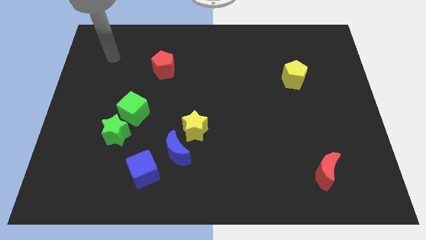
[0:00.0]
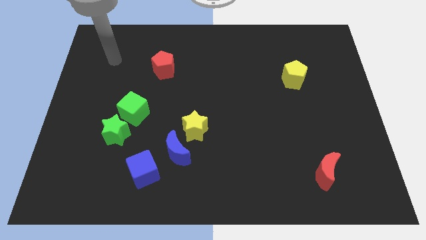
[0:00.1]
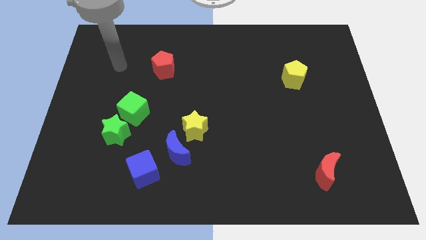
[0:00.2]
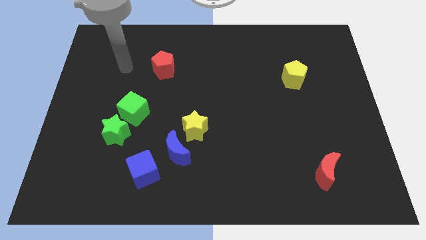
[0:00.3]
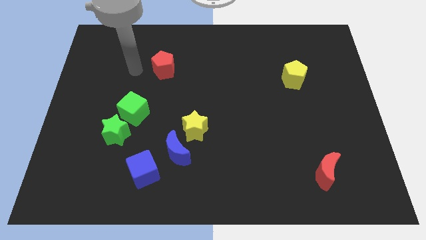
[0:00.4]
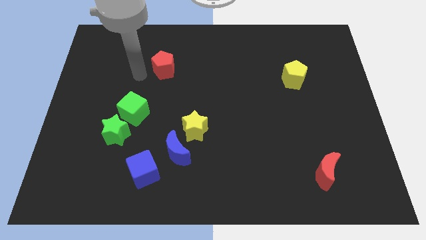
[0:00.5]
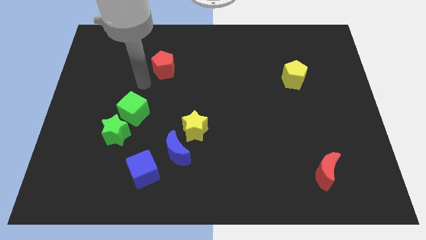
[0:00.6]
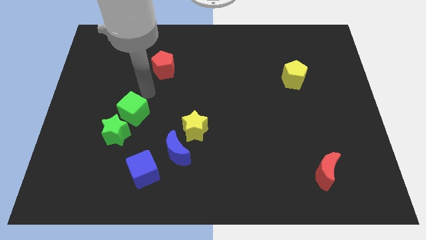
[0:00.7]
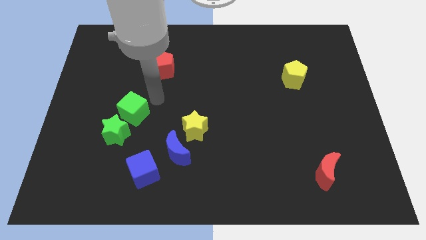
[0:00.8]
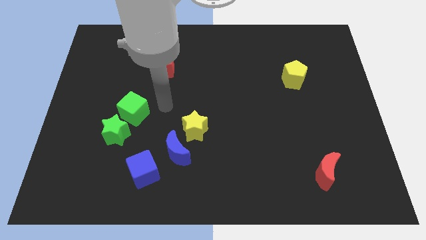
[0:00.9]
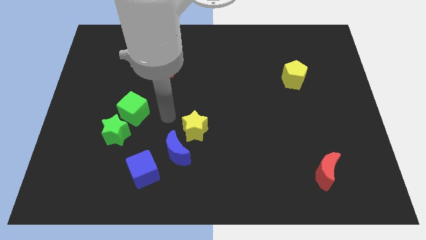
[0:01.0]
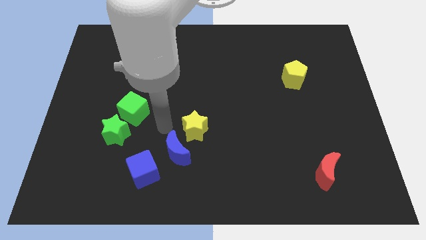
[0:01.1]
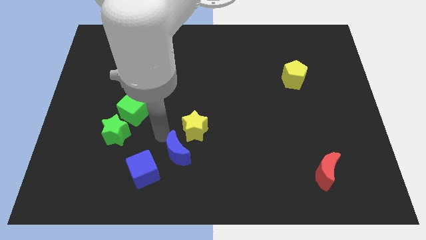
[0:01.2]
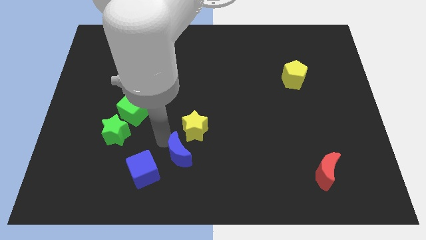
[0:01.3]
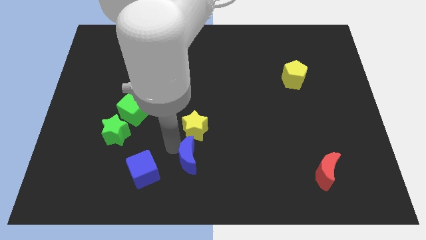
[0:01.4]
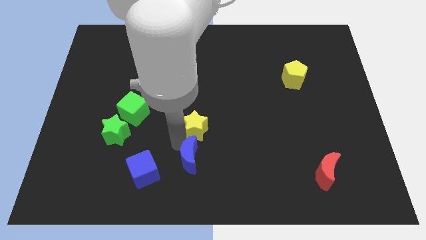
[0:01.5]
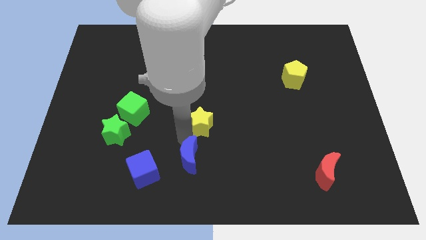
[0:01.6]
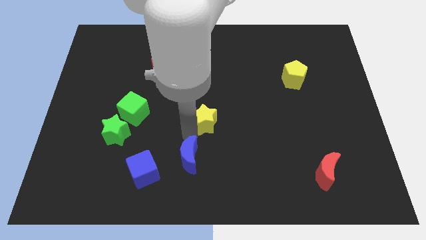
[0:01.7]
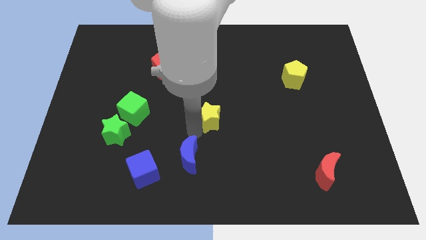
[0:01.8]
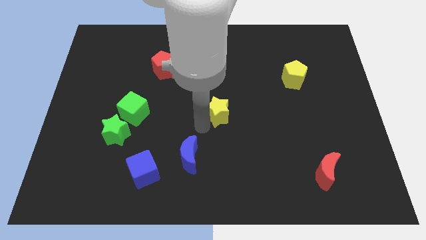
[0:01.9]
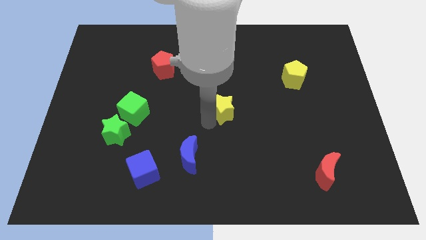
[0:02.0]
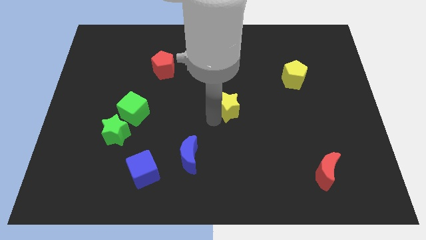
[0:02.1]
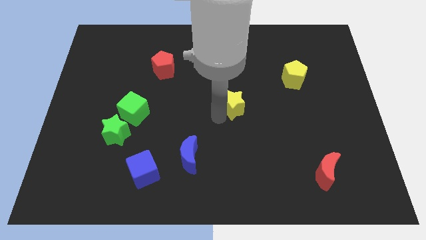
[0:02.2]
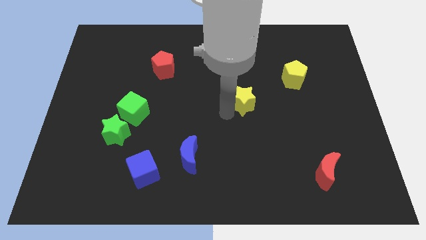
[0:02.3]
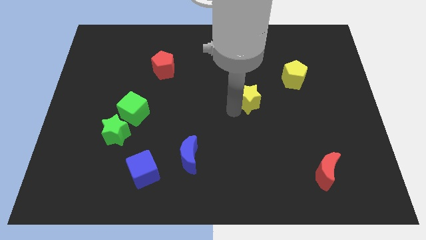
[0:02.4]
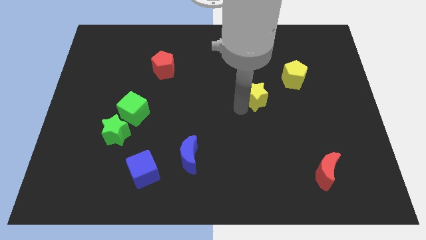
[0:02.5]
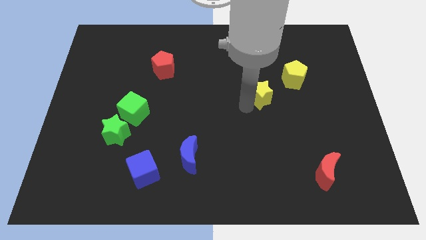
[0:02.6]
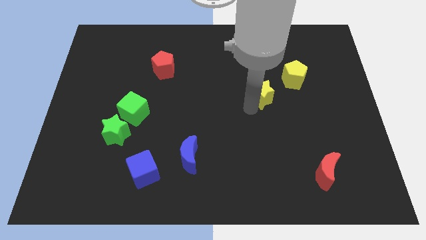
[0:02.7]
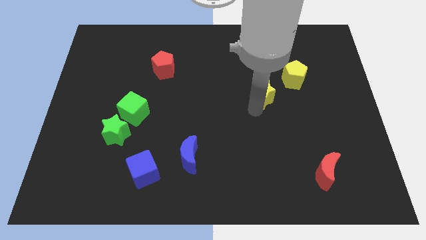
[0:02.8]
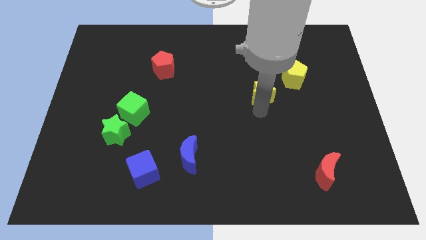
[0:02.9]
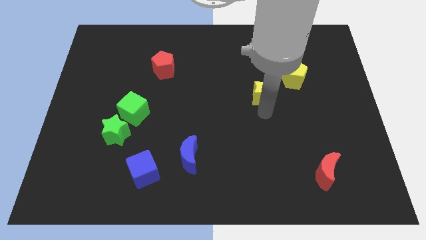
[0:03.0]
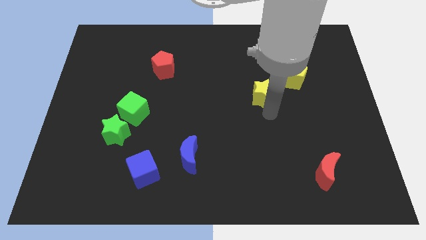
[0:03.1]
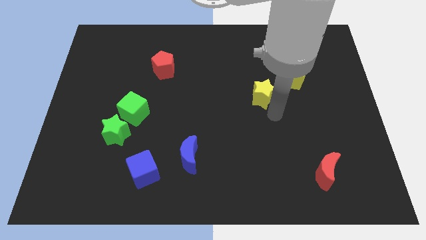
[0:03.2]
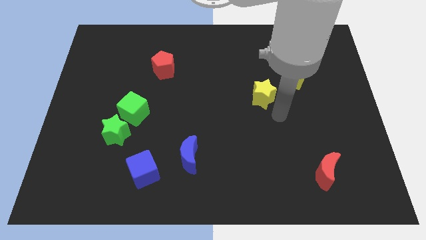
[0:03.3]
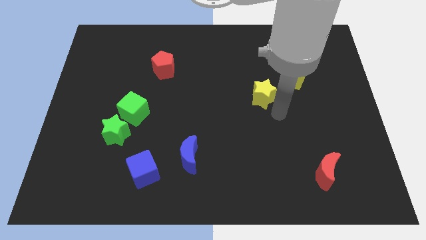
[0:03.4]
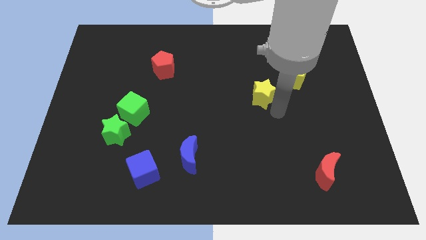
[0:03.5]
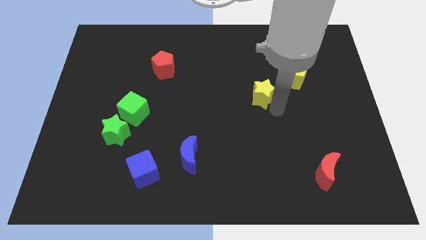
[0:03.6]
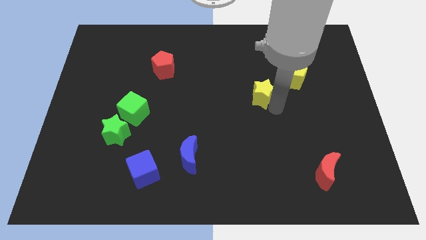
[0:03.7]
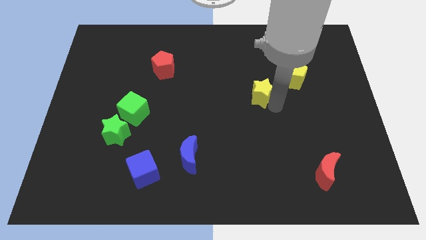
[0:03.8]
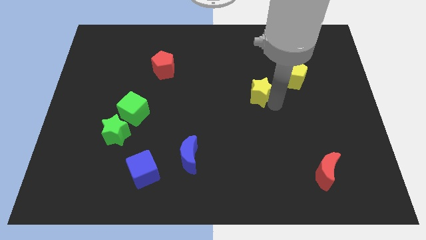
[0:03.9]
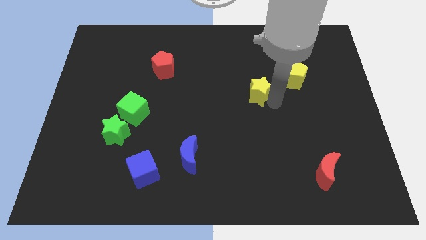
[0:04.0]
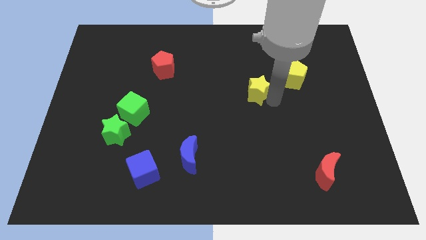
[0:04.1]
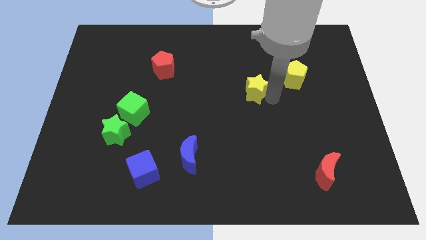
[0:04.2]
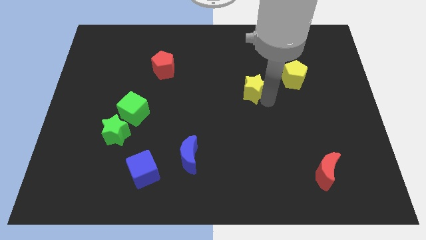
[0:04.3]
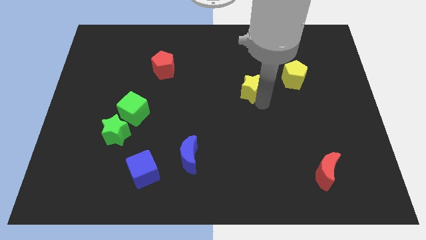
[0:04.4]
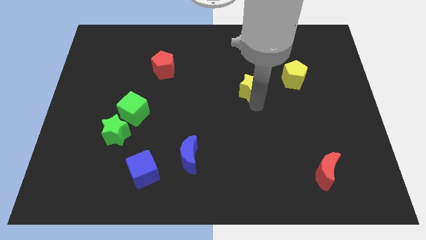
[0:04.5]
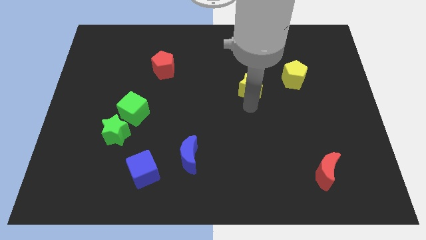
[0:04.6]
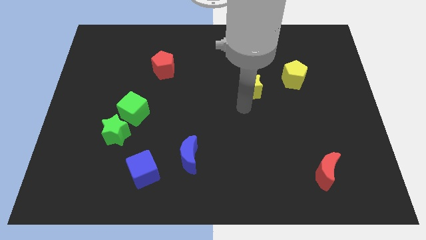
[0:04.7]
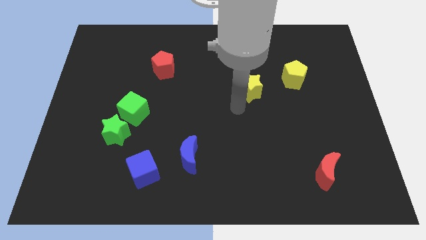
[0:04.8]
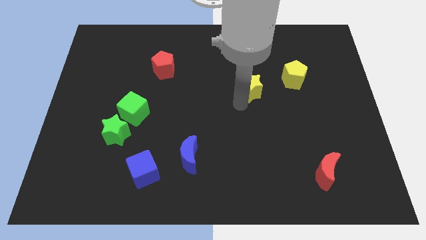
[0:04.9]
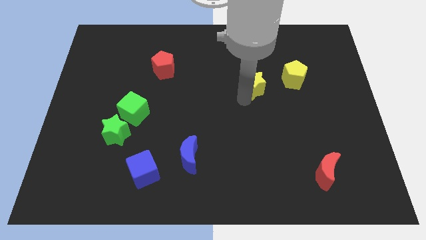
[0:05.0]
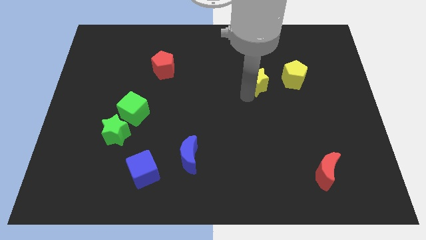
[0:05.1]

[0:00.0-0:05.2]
push the yellow star upwards and to the right diagonally

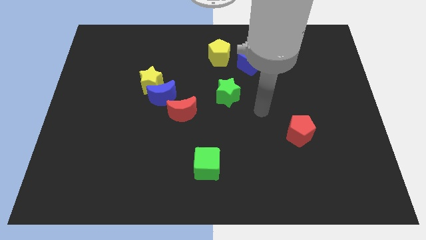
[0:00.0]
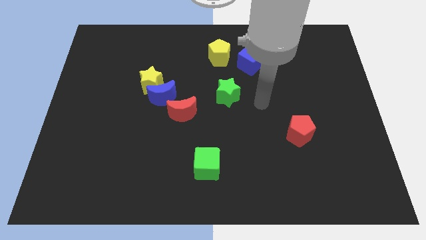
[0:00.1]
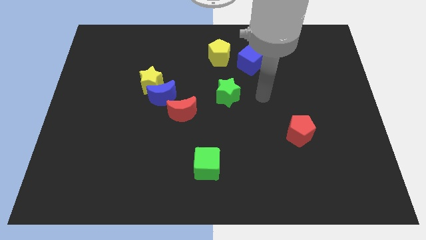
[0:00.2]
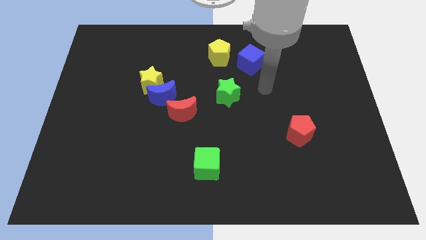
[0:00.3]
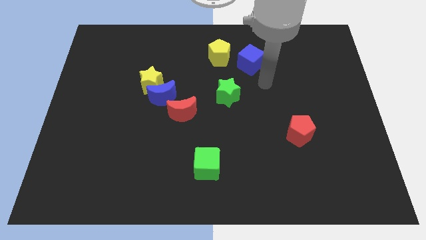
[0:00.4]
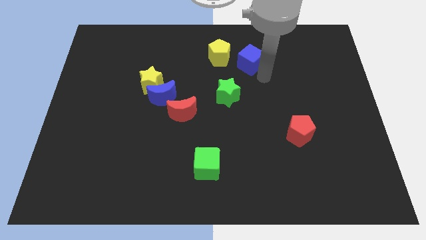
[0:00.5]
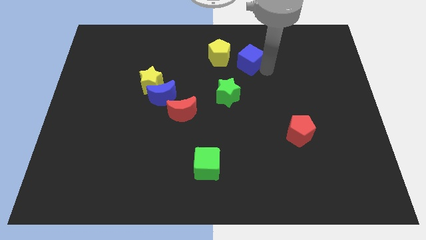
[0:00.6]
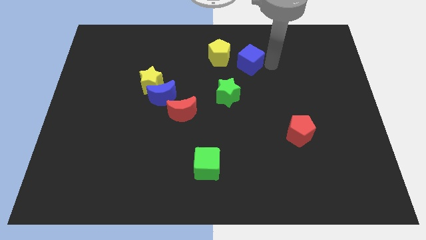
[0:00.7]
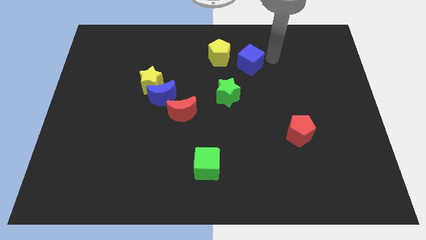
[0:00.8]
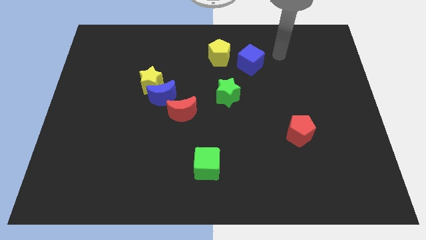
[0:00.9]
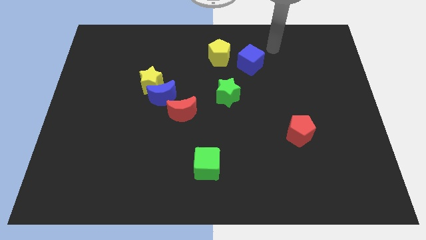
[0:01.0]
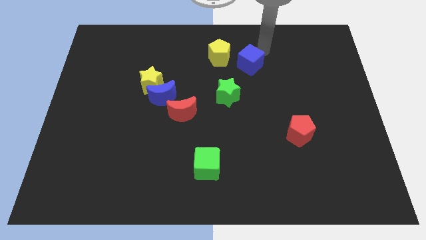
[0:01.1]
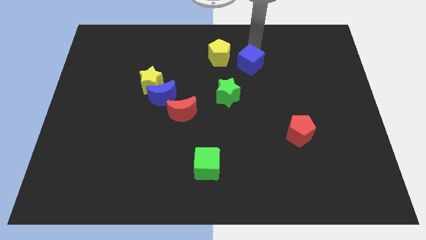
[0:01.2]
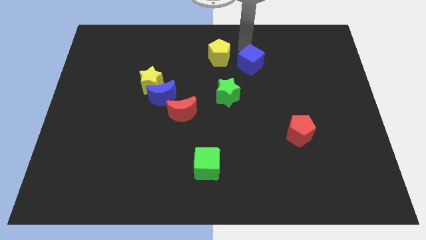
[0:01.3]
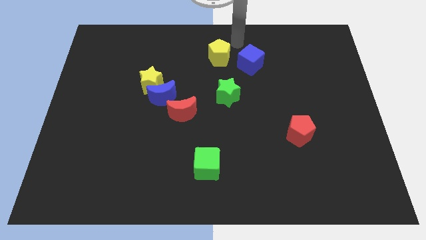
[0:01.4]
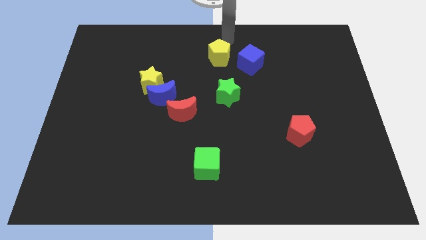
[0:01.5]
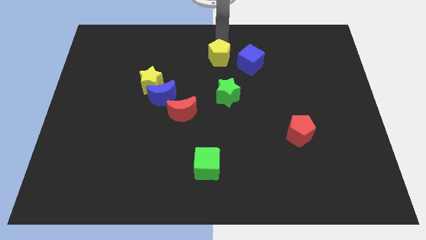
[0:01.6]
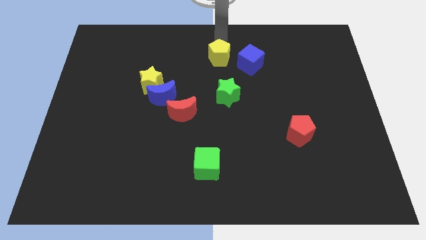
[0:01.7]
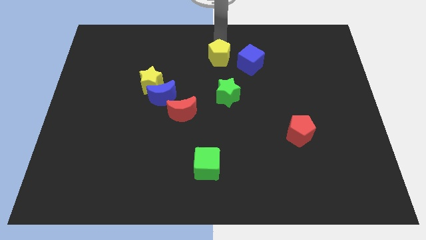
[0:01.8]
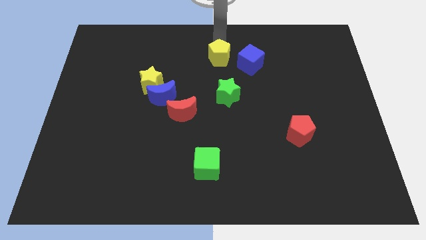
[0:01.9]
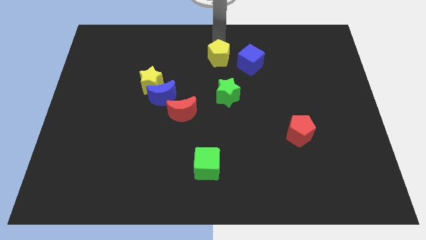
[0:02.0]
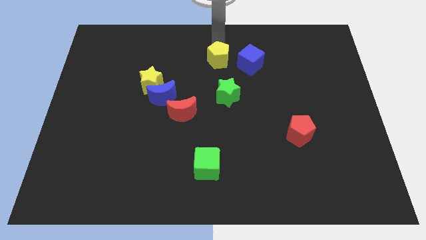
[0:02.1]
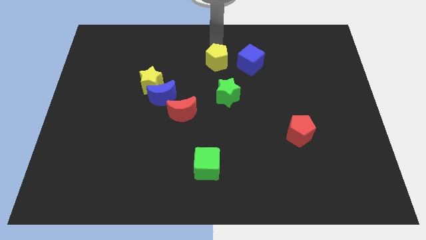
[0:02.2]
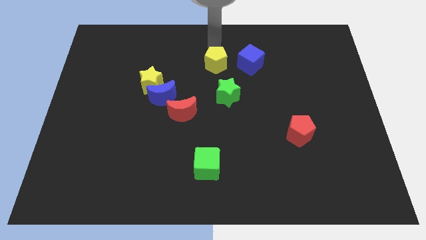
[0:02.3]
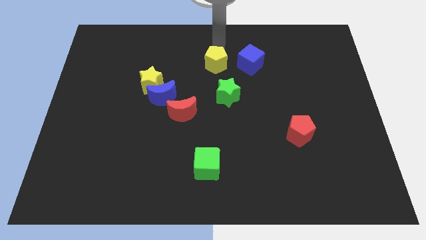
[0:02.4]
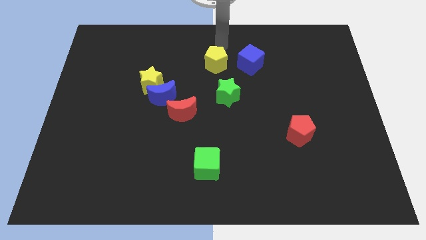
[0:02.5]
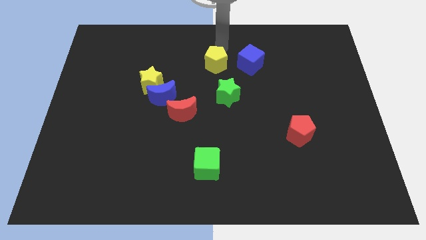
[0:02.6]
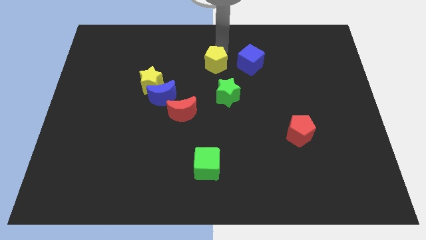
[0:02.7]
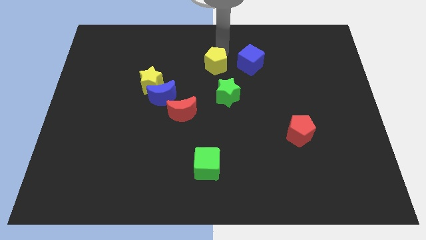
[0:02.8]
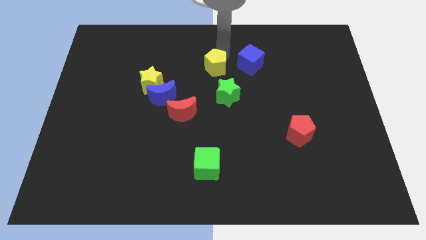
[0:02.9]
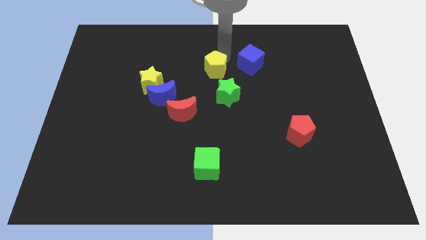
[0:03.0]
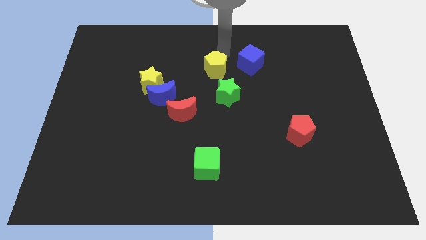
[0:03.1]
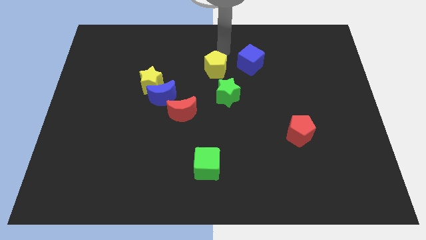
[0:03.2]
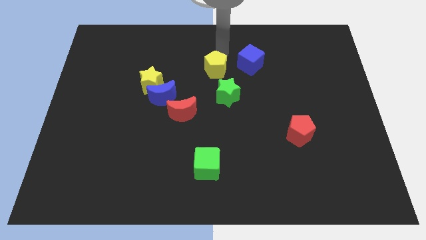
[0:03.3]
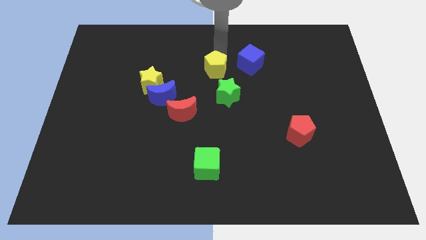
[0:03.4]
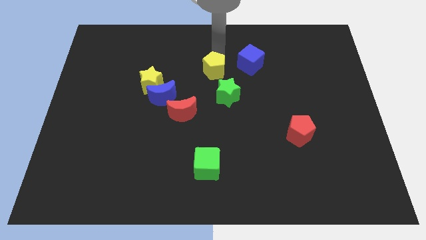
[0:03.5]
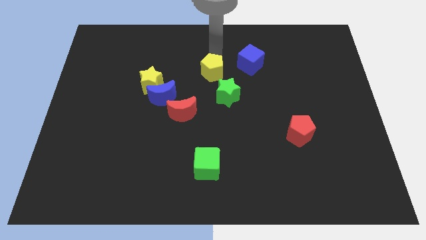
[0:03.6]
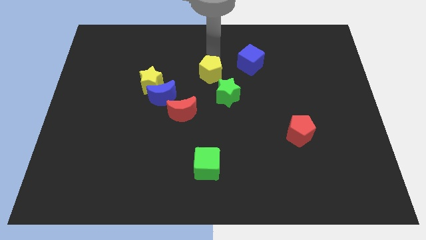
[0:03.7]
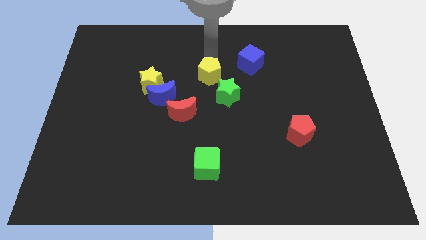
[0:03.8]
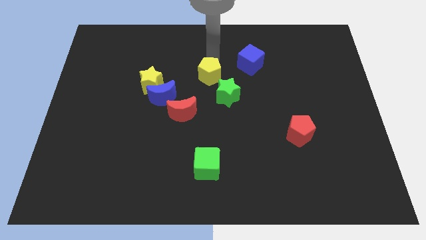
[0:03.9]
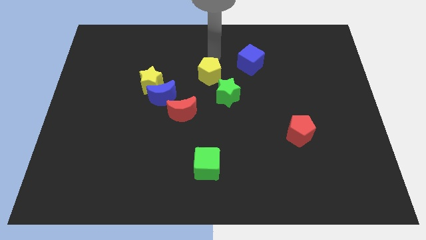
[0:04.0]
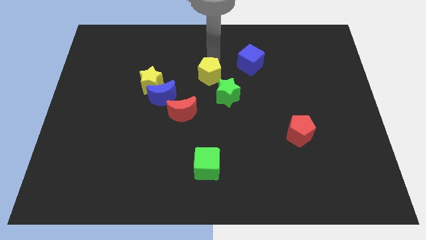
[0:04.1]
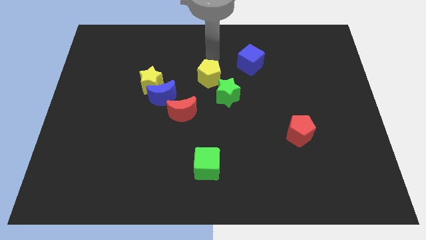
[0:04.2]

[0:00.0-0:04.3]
move the yellow pentagon somewhat down
